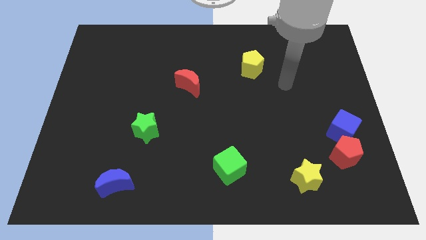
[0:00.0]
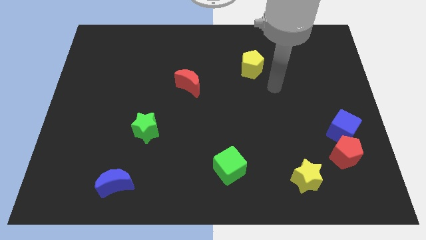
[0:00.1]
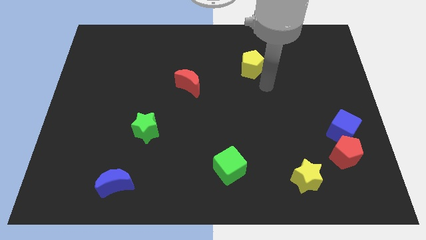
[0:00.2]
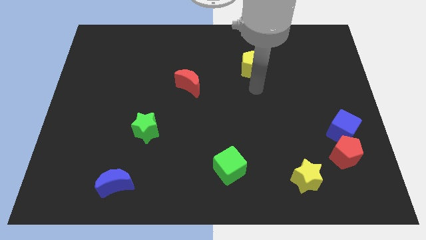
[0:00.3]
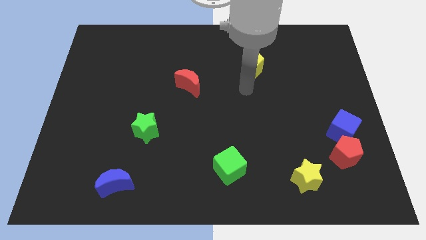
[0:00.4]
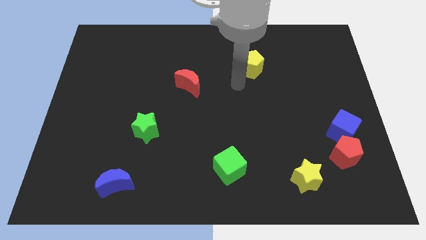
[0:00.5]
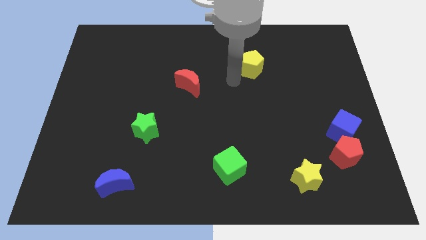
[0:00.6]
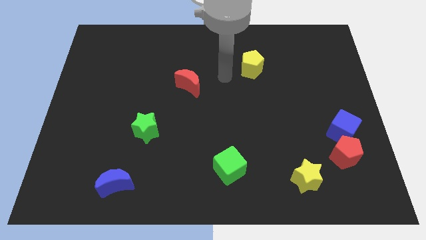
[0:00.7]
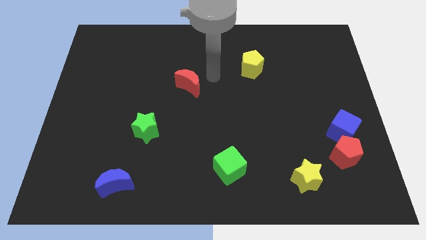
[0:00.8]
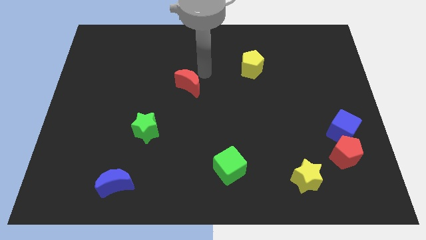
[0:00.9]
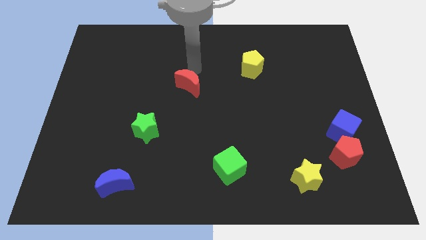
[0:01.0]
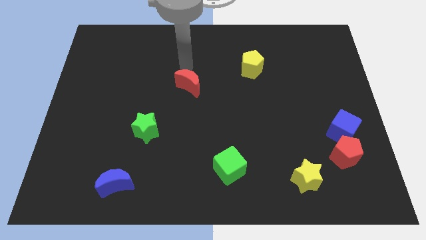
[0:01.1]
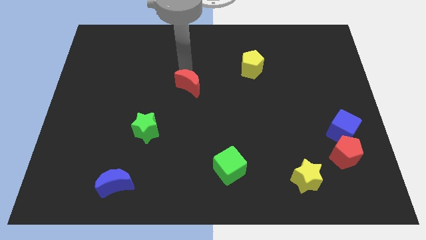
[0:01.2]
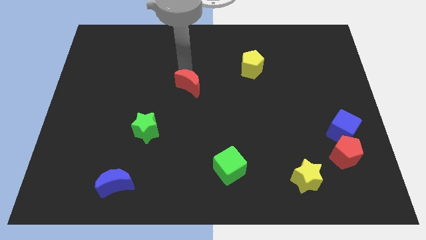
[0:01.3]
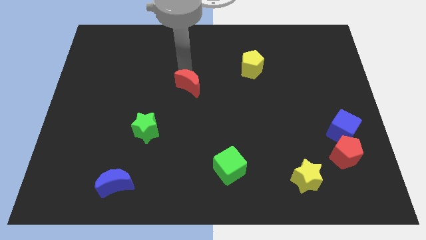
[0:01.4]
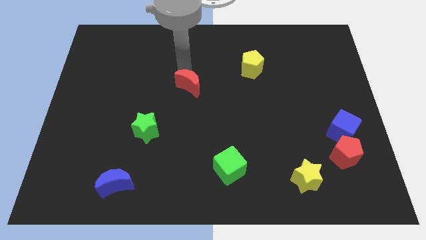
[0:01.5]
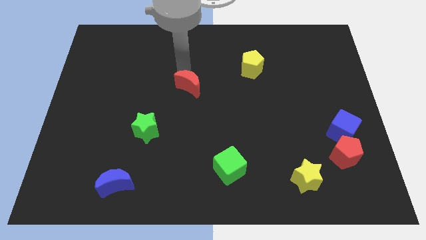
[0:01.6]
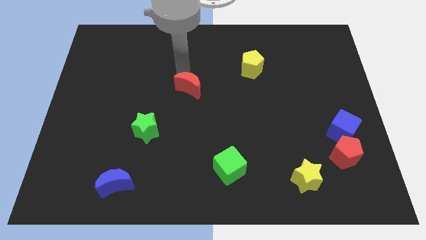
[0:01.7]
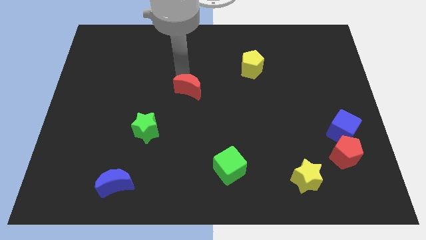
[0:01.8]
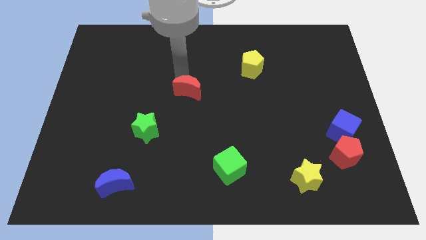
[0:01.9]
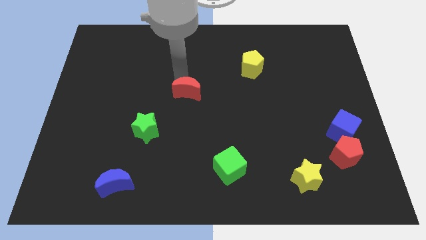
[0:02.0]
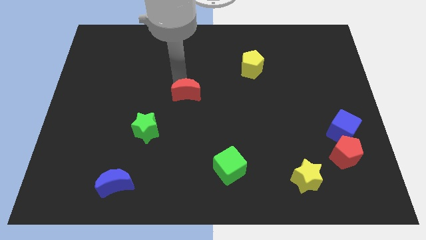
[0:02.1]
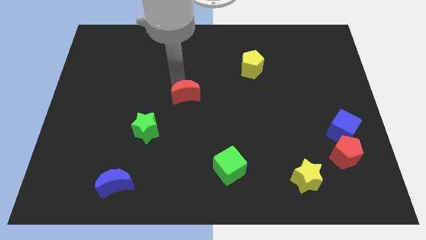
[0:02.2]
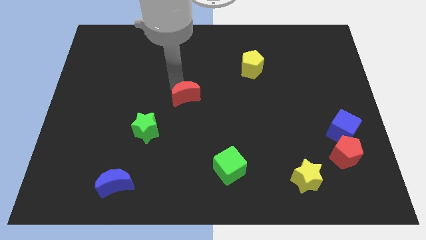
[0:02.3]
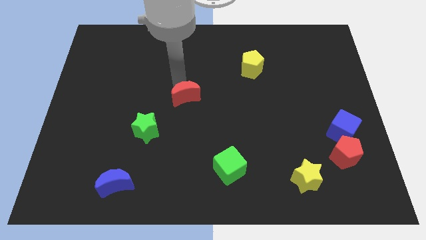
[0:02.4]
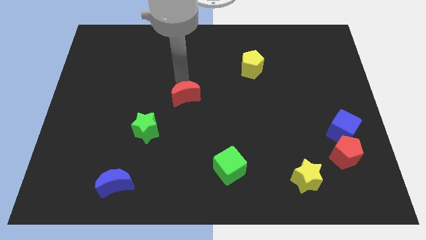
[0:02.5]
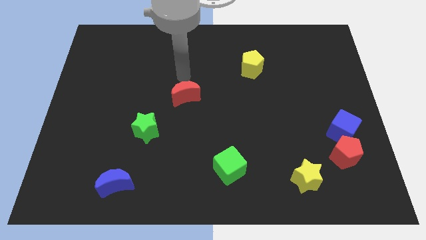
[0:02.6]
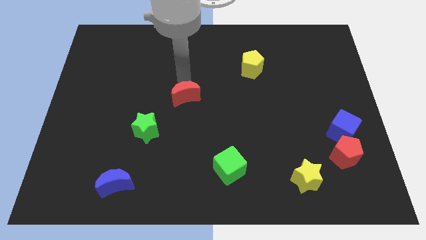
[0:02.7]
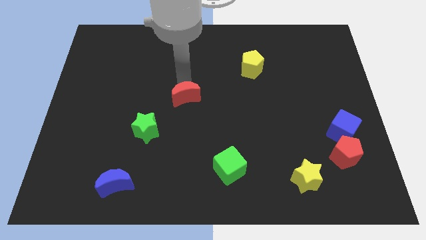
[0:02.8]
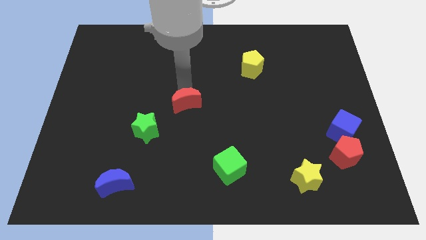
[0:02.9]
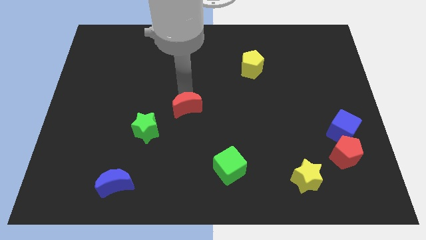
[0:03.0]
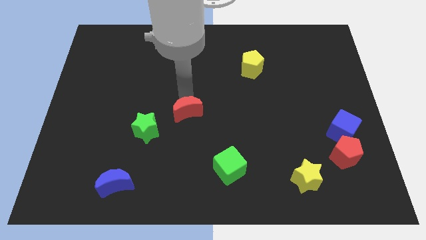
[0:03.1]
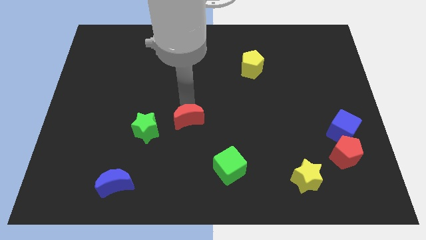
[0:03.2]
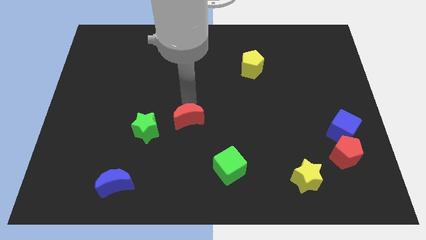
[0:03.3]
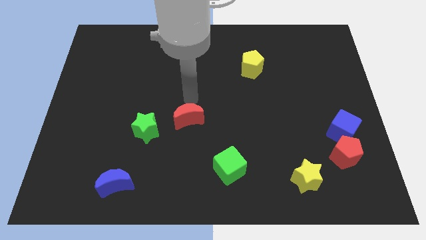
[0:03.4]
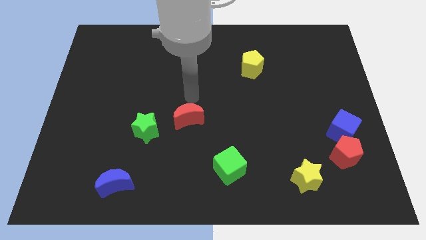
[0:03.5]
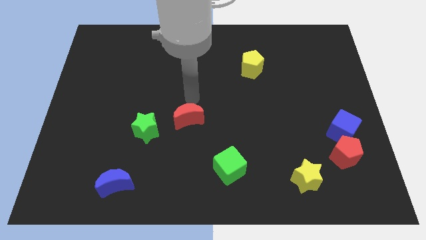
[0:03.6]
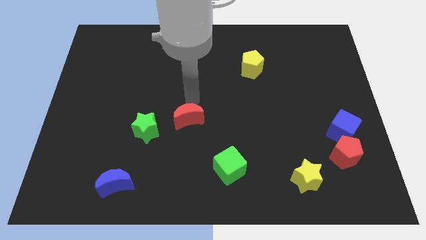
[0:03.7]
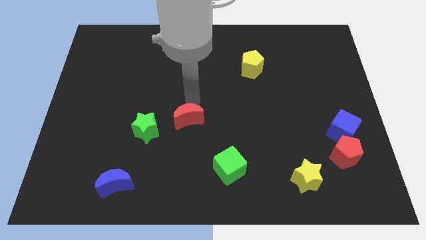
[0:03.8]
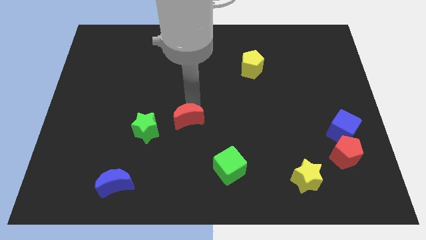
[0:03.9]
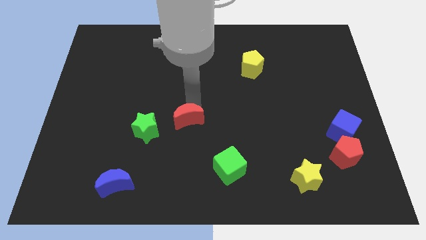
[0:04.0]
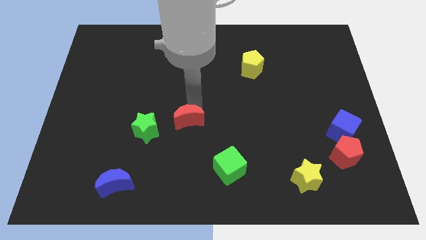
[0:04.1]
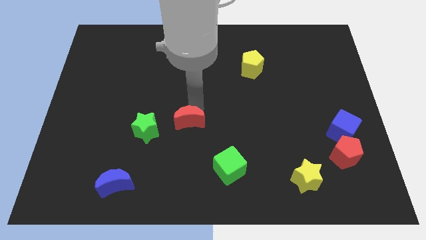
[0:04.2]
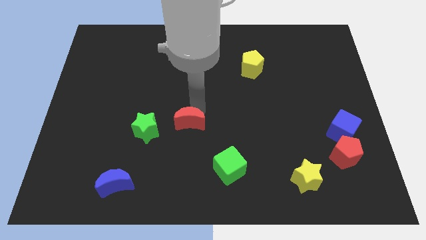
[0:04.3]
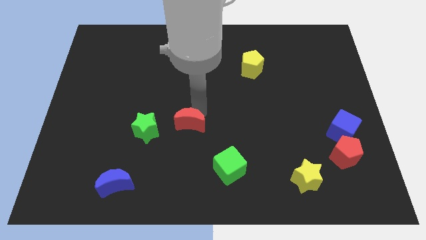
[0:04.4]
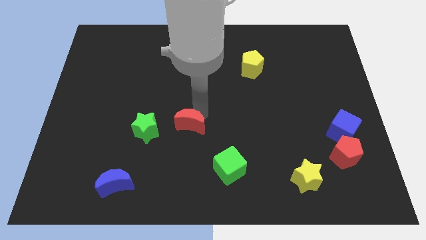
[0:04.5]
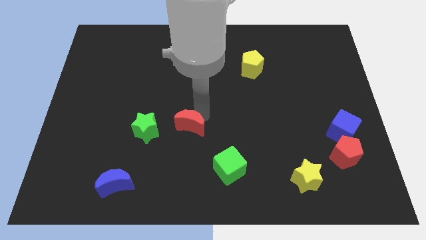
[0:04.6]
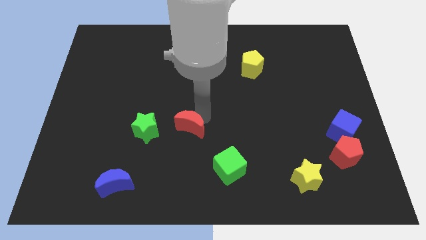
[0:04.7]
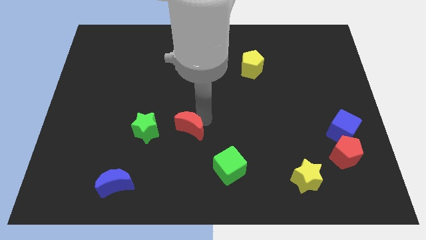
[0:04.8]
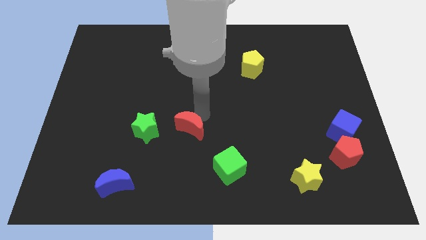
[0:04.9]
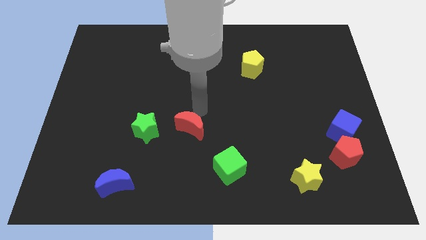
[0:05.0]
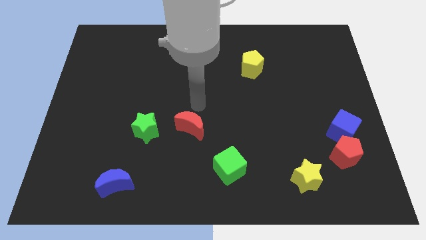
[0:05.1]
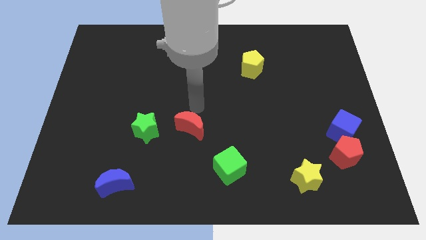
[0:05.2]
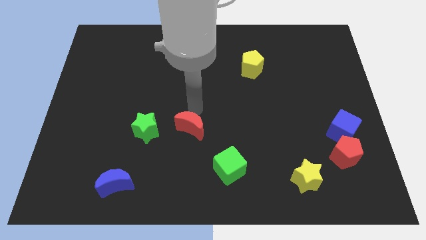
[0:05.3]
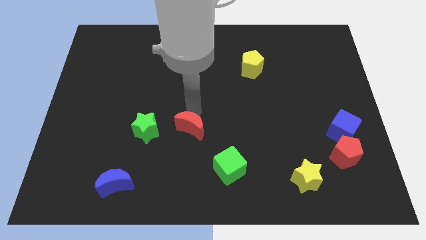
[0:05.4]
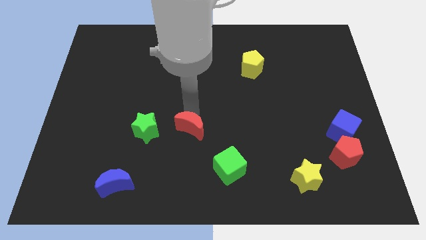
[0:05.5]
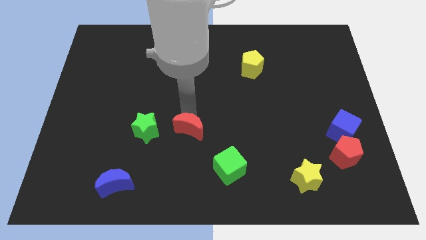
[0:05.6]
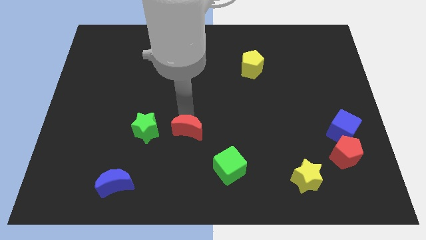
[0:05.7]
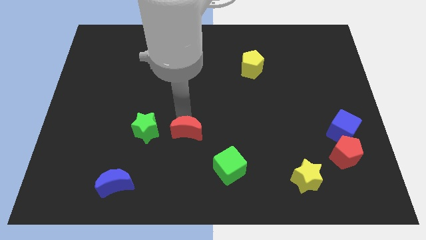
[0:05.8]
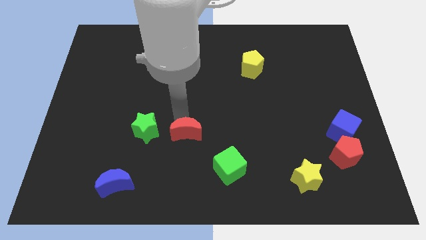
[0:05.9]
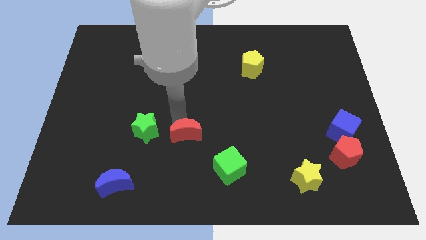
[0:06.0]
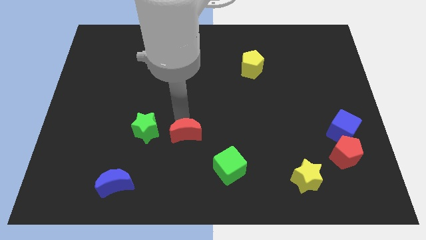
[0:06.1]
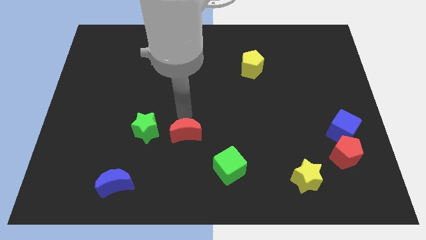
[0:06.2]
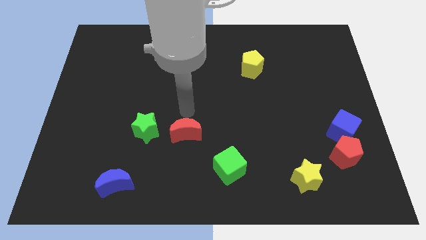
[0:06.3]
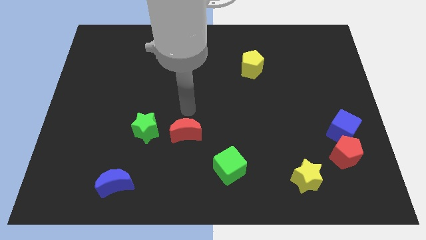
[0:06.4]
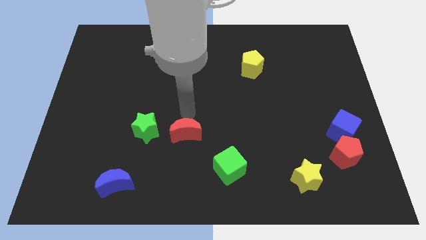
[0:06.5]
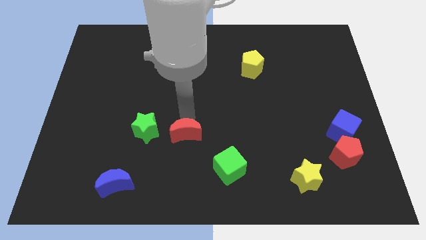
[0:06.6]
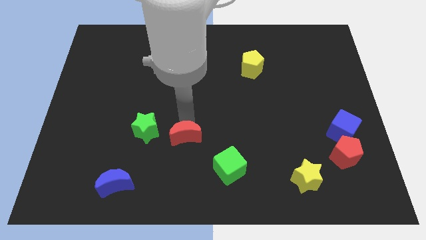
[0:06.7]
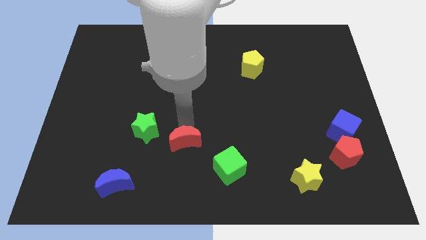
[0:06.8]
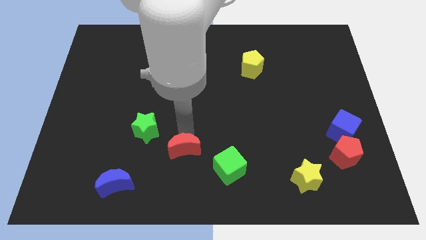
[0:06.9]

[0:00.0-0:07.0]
put the red moon to the left side of the green cube

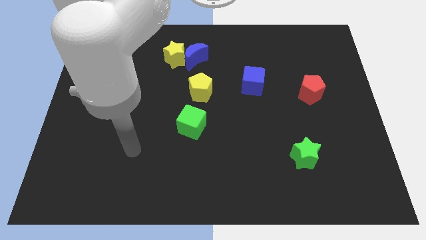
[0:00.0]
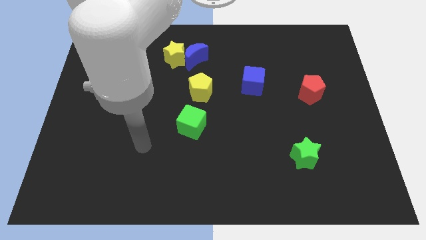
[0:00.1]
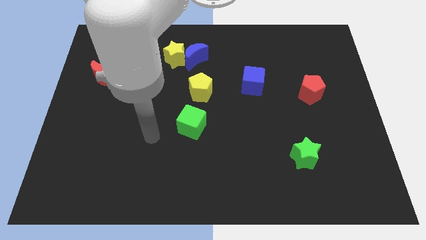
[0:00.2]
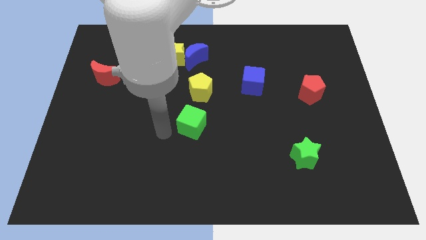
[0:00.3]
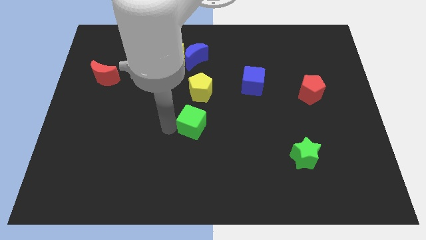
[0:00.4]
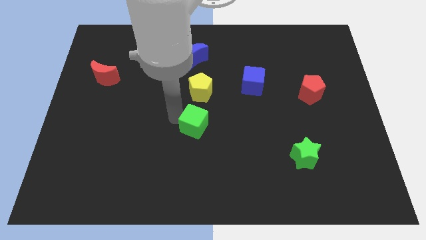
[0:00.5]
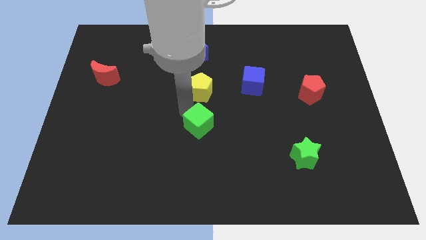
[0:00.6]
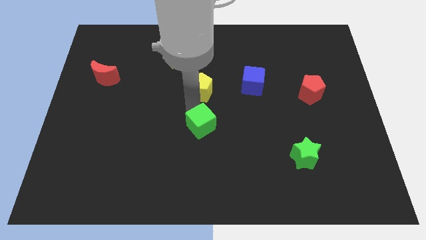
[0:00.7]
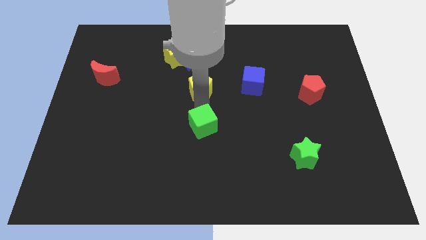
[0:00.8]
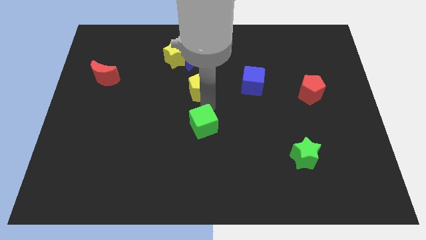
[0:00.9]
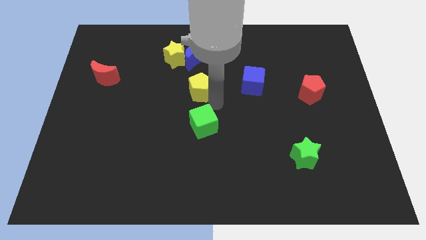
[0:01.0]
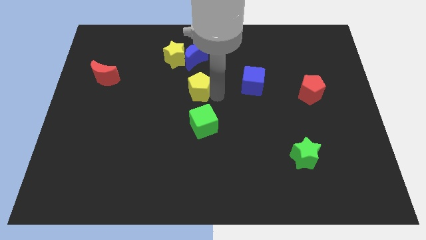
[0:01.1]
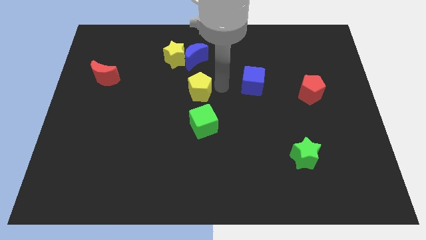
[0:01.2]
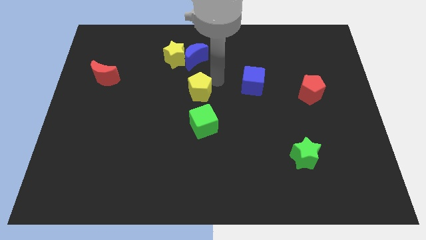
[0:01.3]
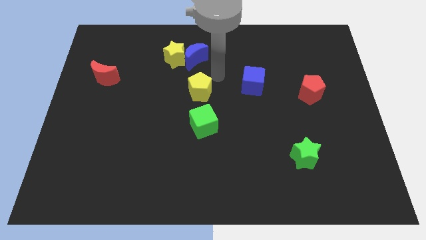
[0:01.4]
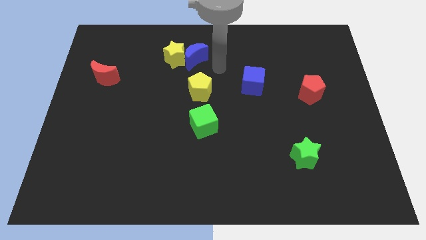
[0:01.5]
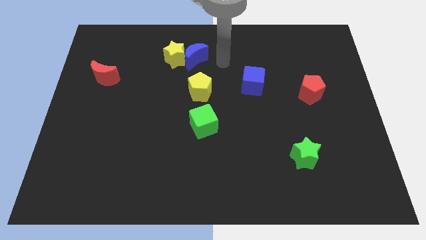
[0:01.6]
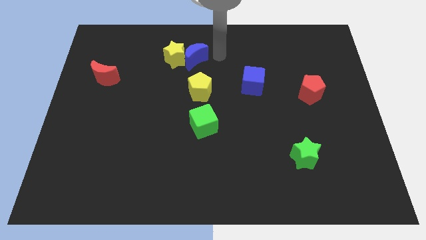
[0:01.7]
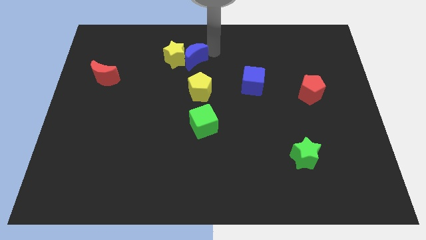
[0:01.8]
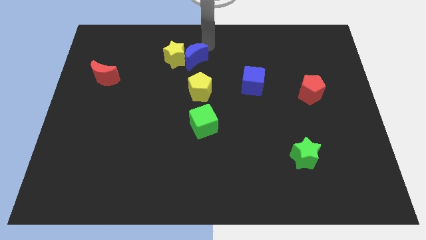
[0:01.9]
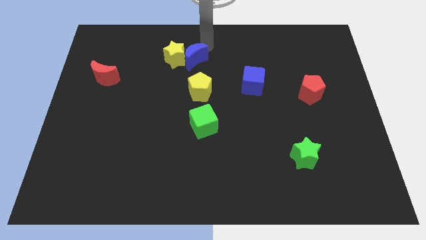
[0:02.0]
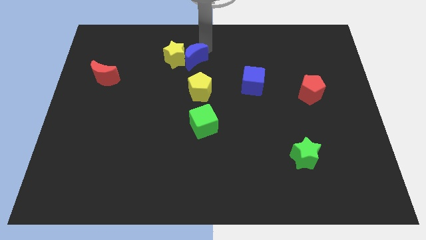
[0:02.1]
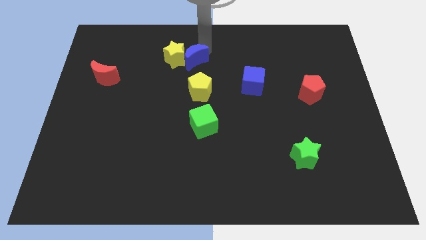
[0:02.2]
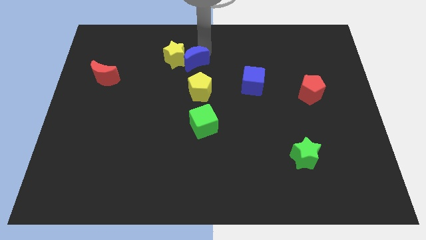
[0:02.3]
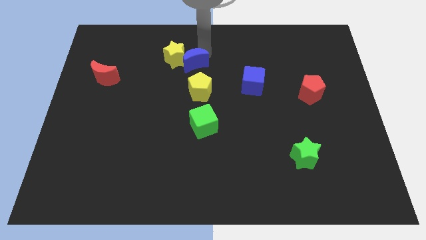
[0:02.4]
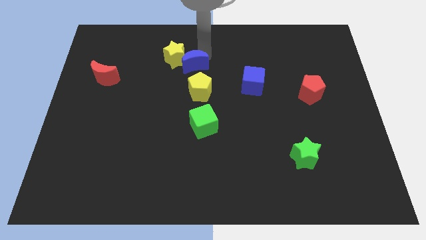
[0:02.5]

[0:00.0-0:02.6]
move the blue moon to the top left side of the yellow pentagon
